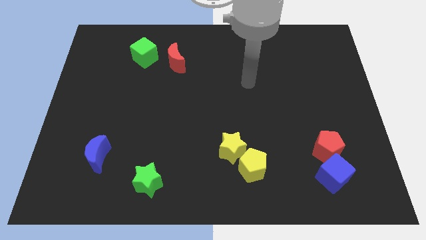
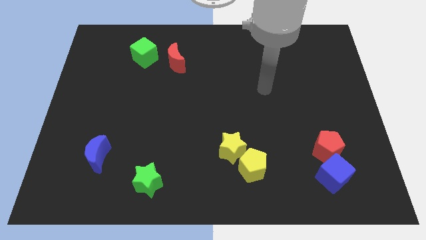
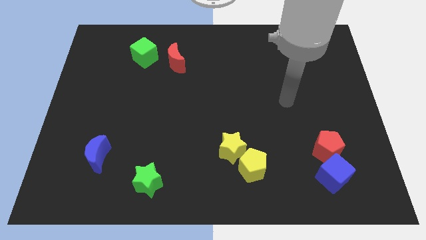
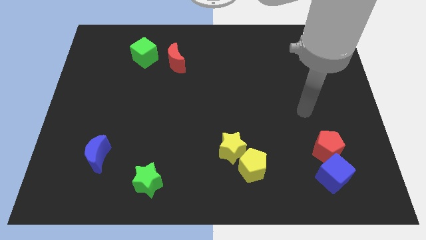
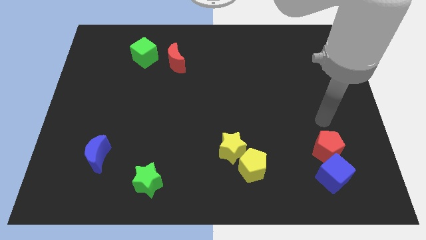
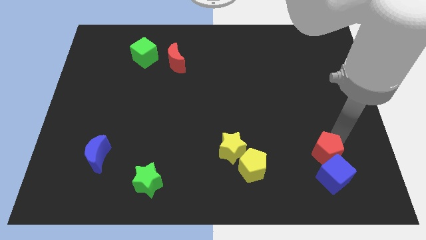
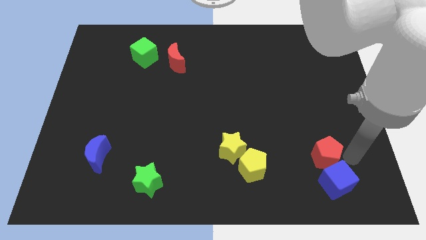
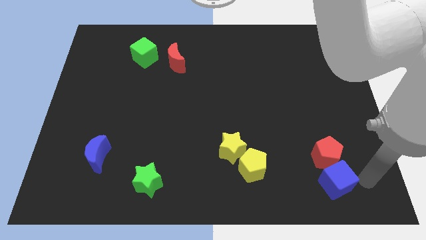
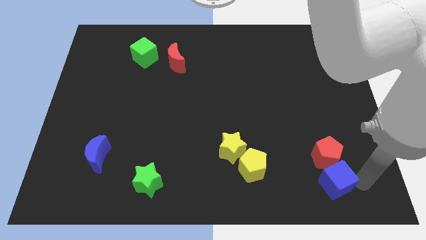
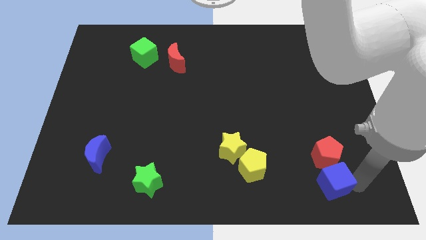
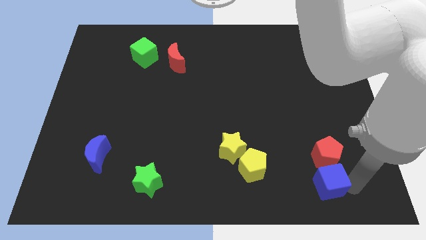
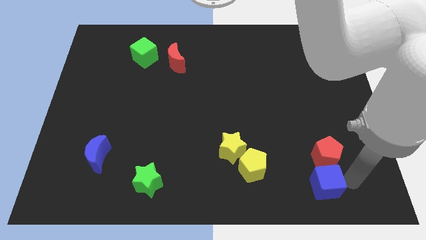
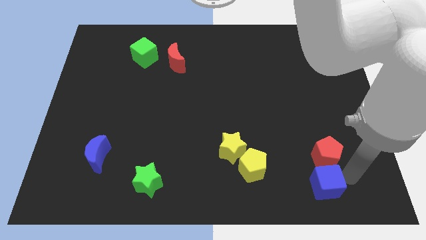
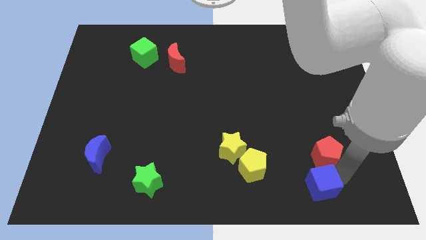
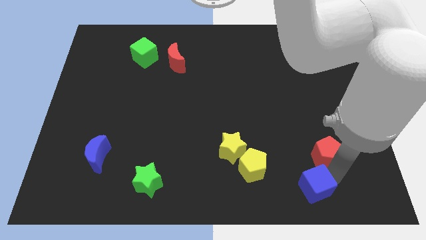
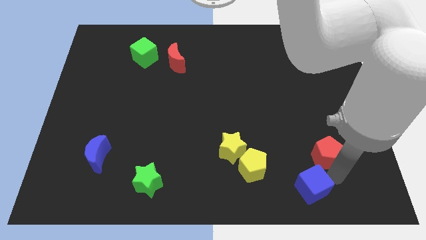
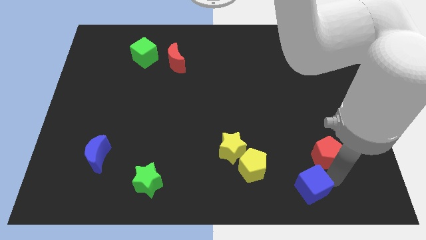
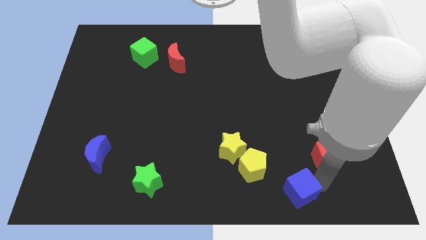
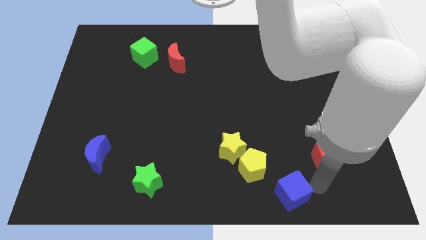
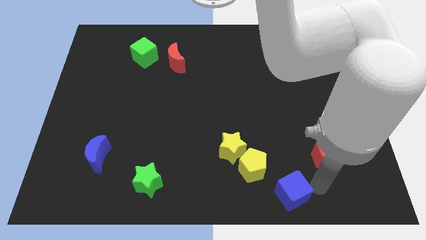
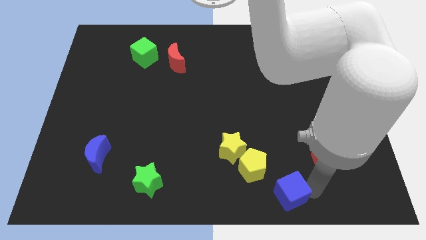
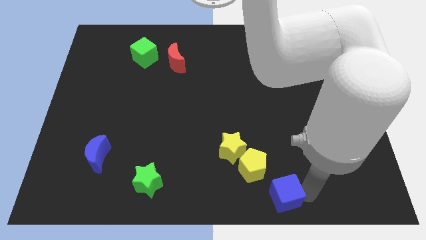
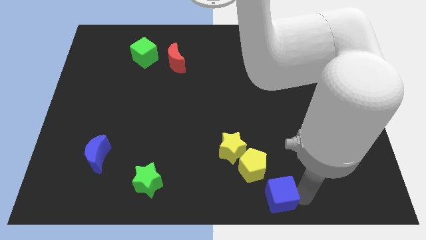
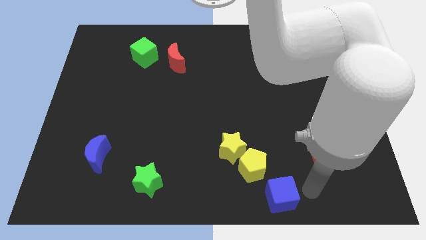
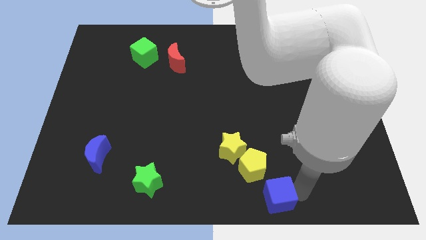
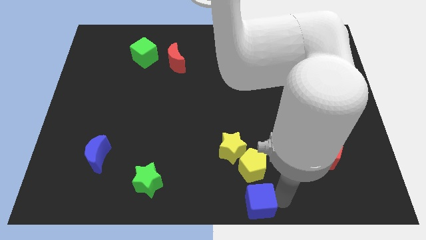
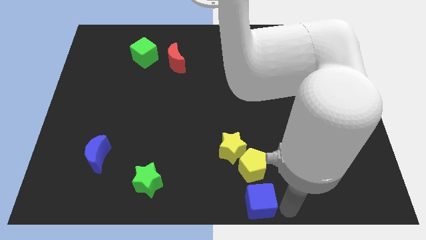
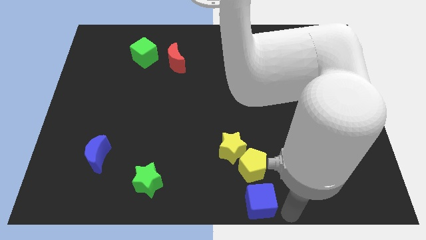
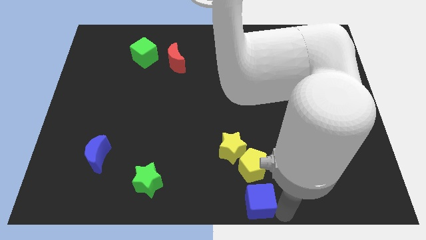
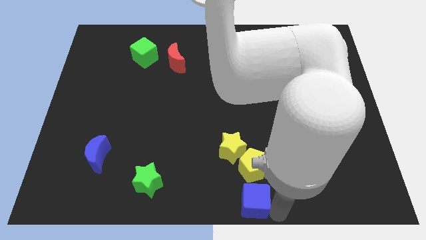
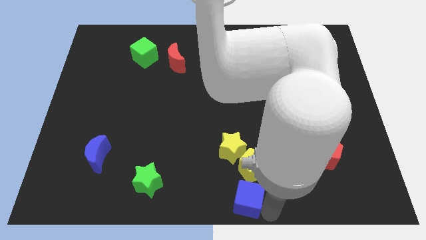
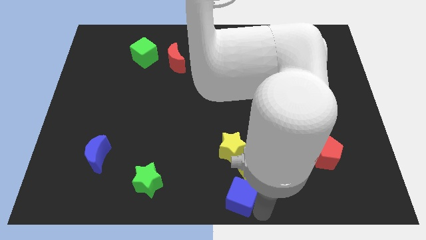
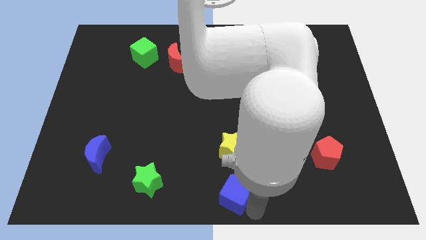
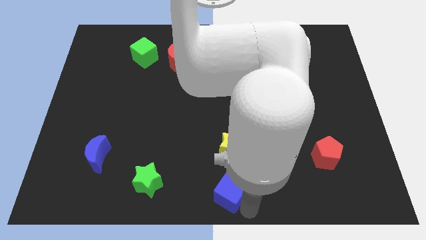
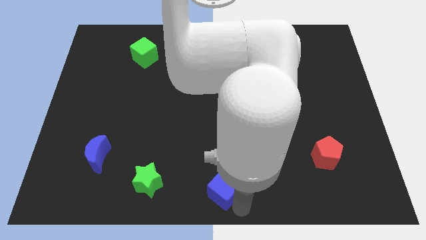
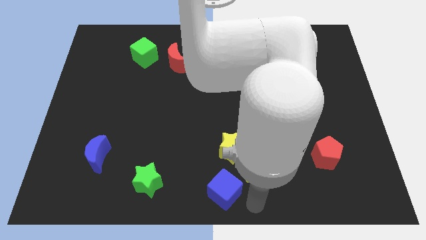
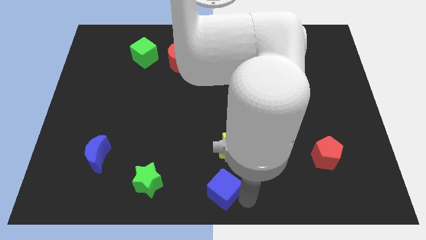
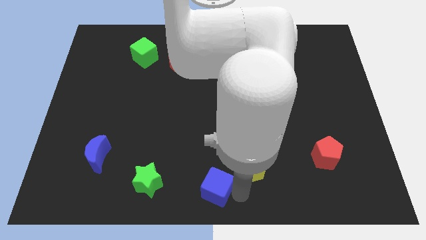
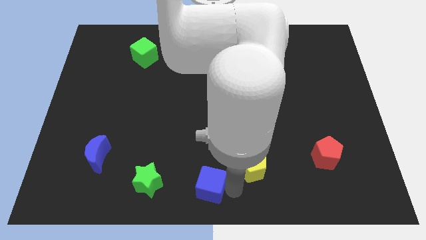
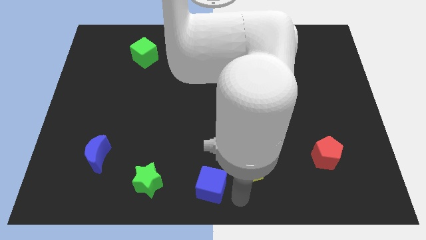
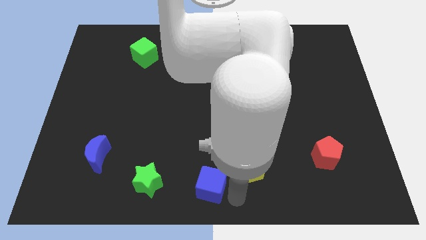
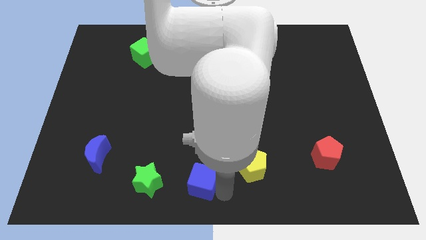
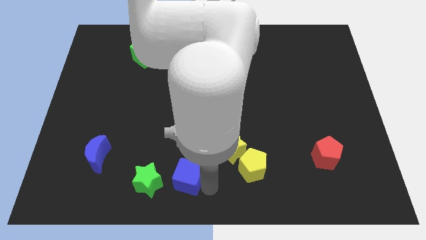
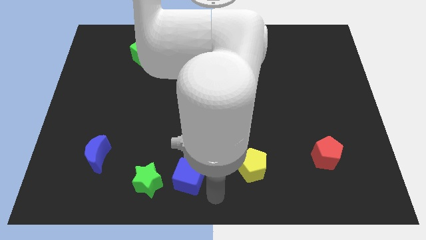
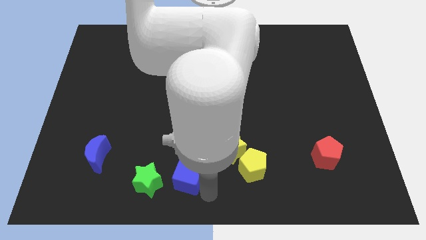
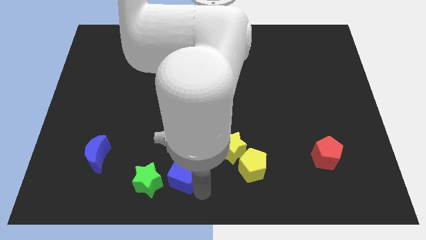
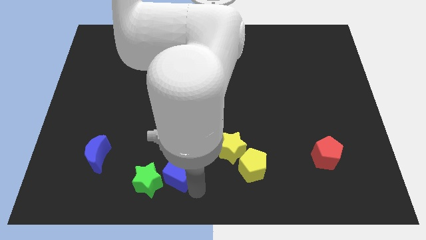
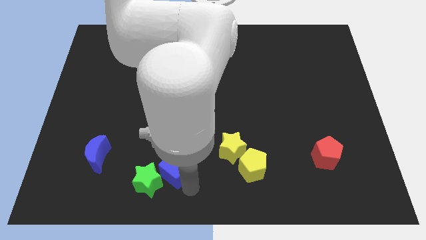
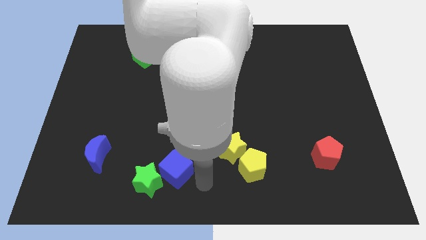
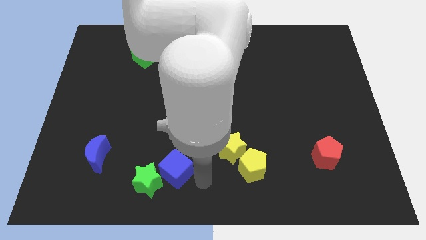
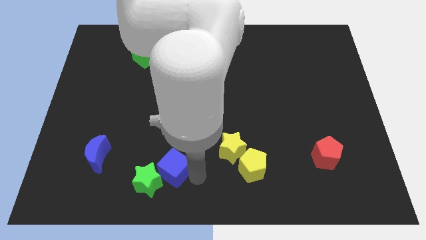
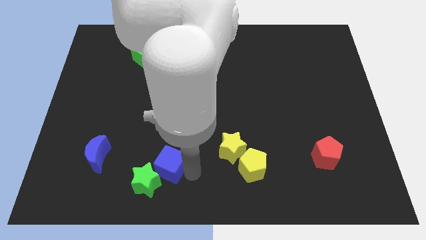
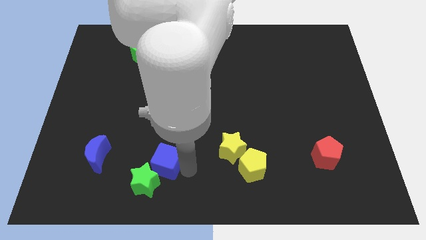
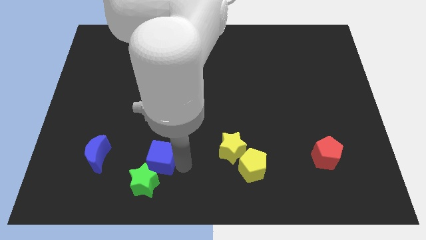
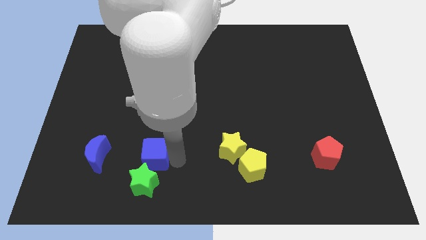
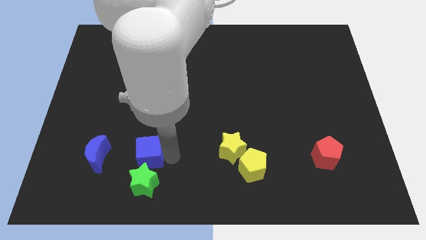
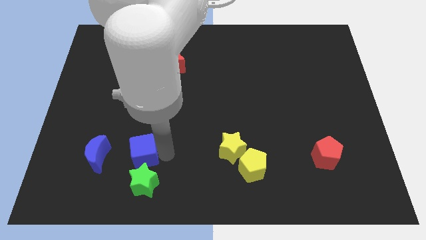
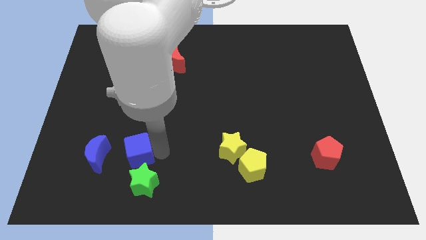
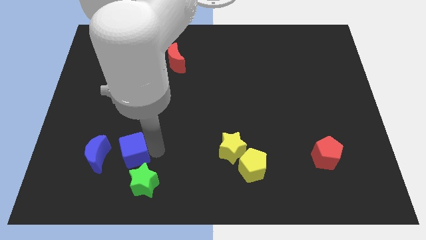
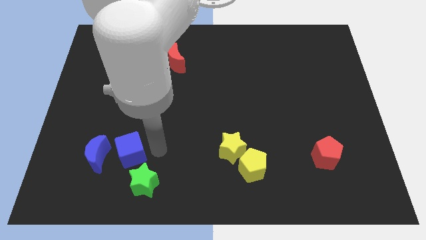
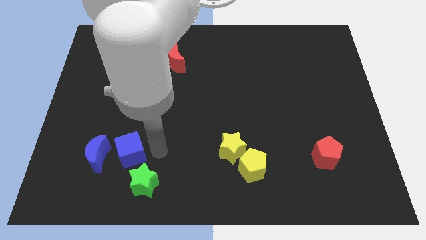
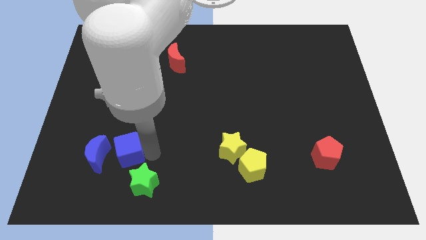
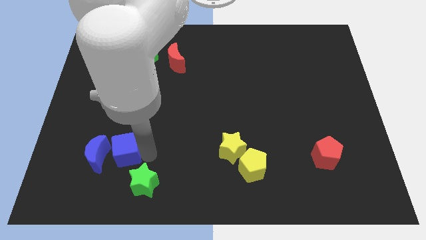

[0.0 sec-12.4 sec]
push the blue cube towards the blue moon

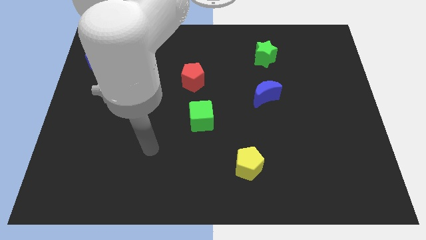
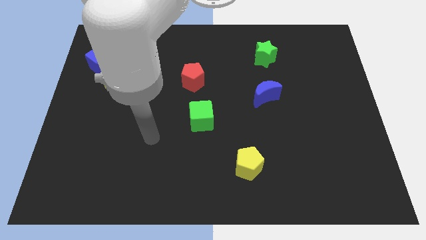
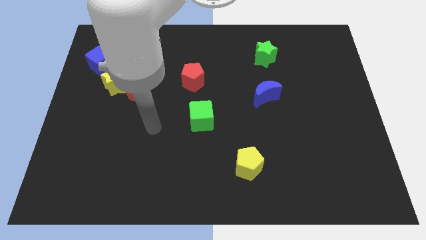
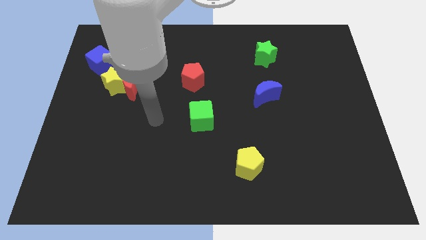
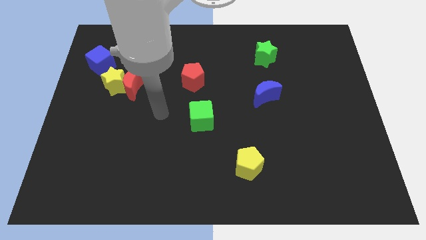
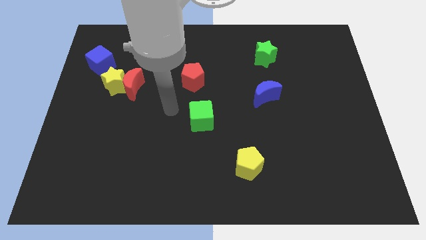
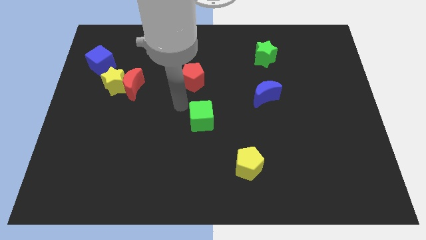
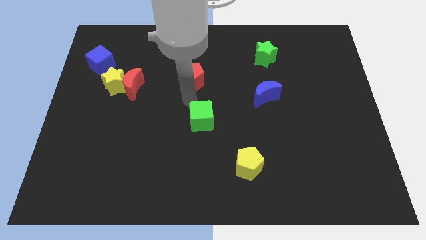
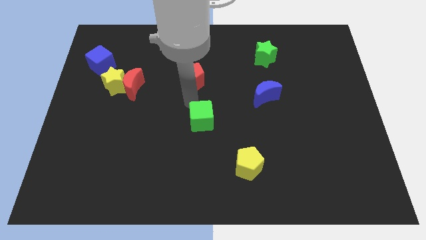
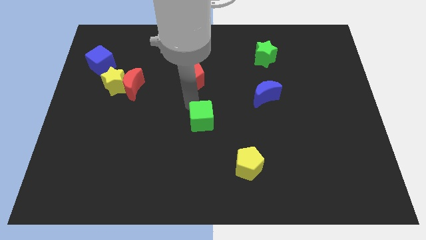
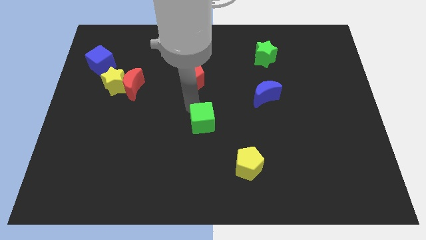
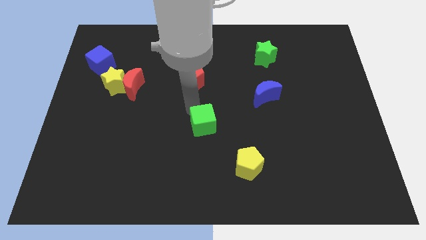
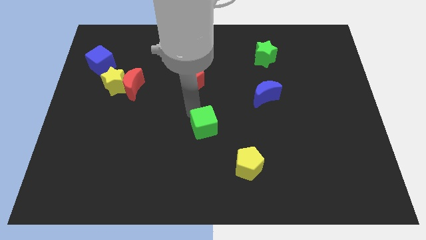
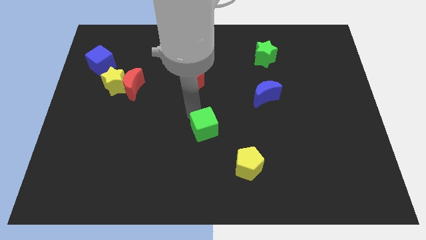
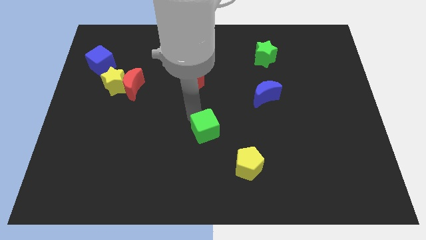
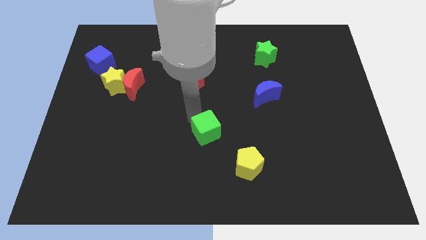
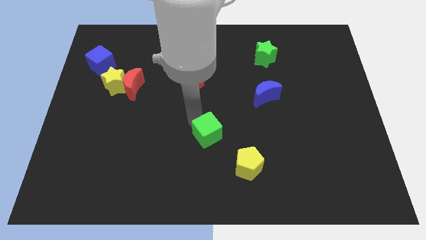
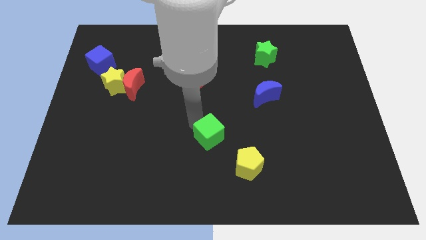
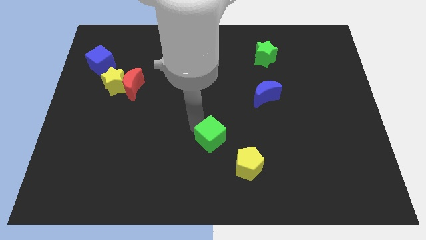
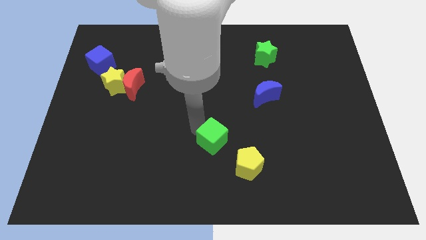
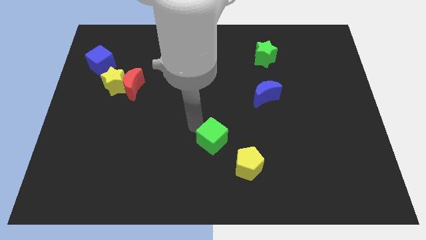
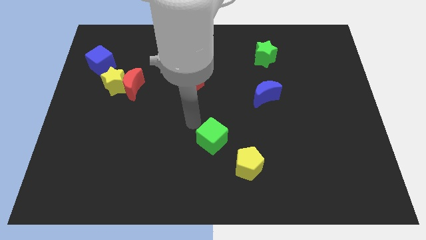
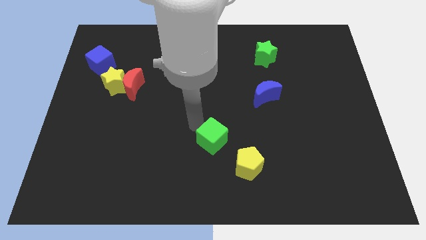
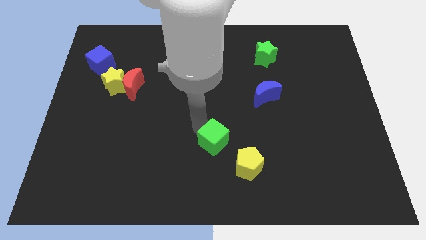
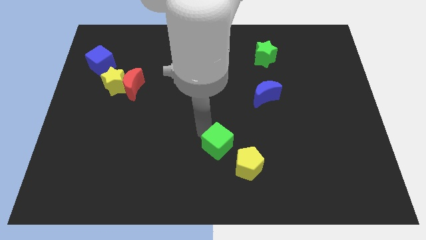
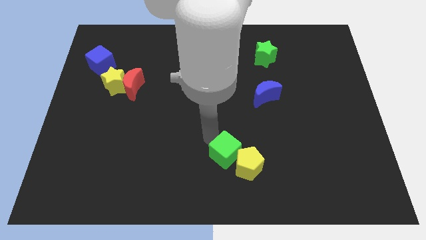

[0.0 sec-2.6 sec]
push the green cube next to the yellow pentagon
